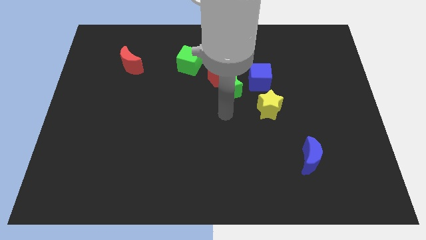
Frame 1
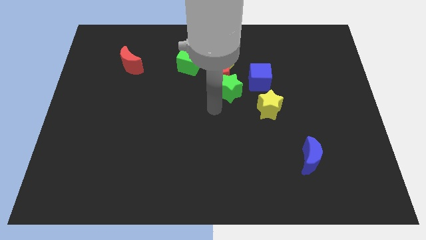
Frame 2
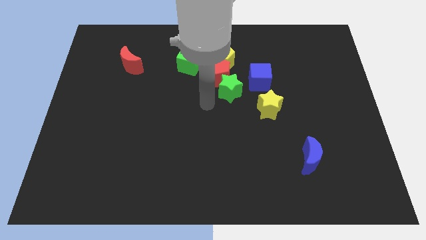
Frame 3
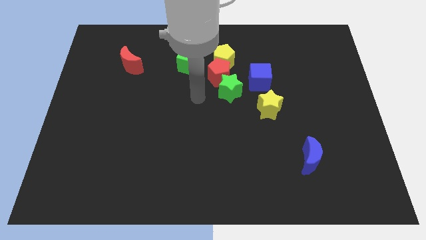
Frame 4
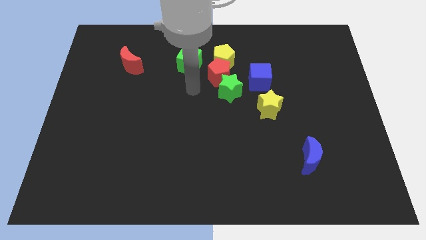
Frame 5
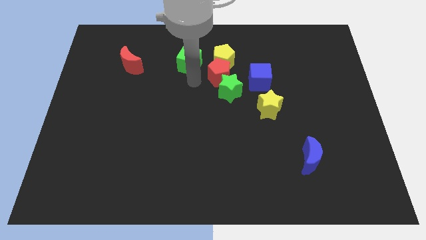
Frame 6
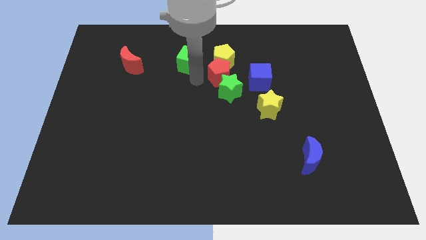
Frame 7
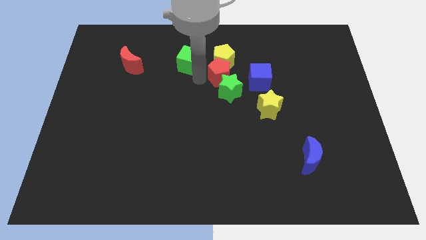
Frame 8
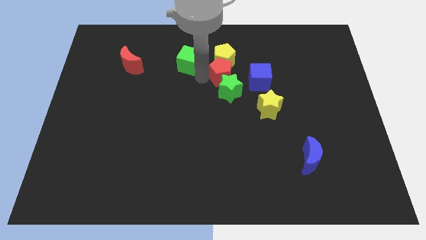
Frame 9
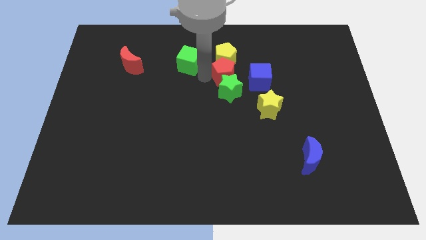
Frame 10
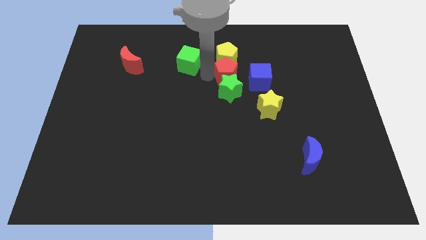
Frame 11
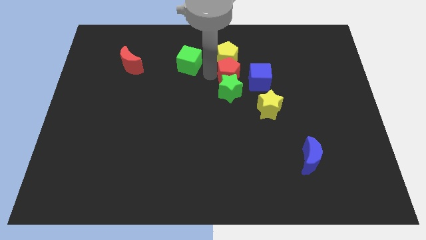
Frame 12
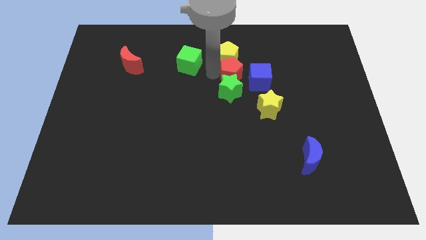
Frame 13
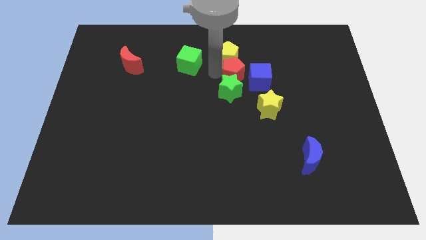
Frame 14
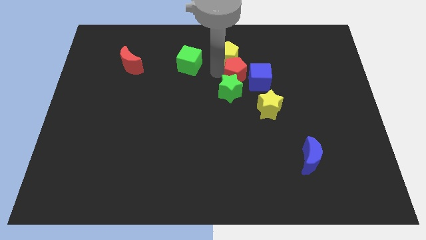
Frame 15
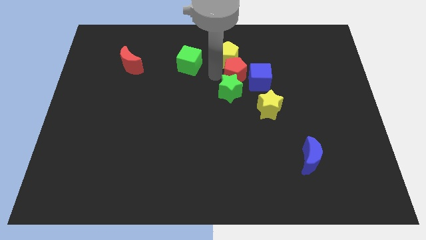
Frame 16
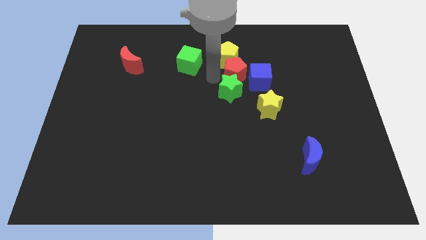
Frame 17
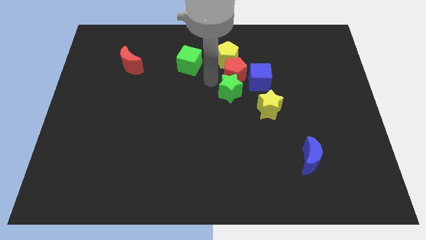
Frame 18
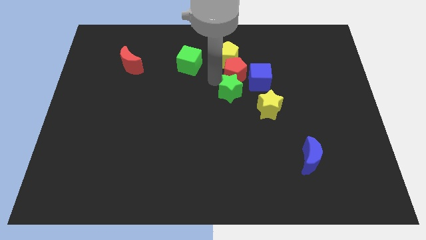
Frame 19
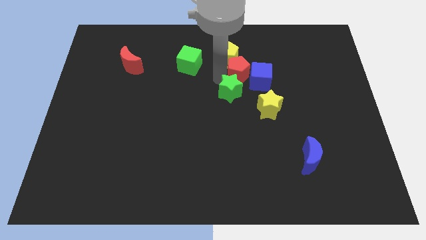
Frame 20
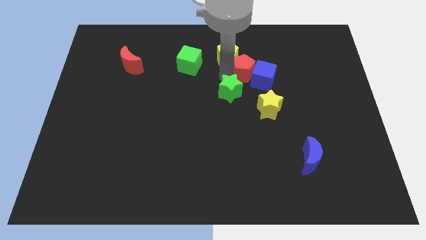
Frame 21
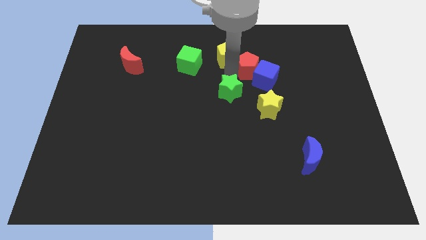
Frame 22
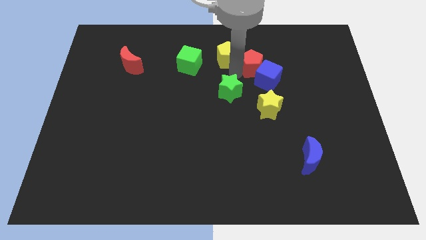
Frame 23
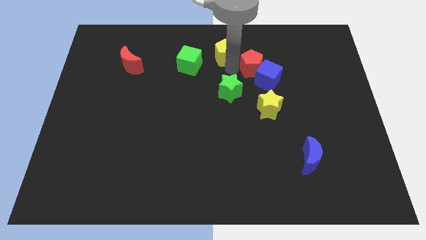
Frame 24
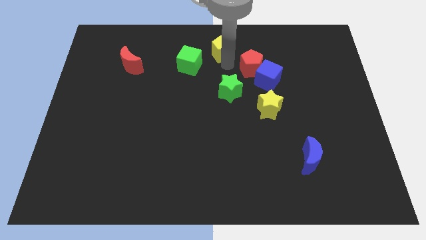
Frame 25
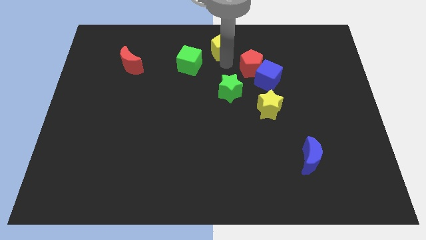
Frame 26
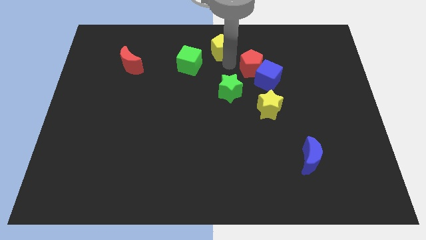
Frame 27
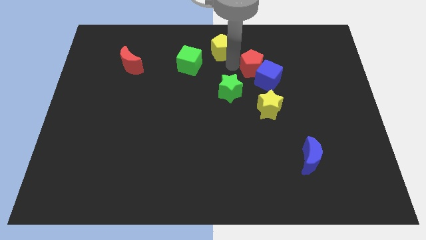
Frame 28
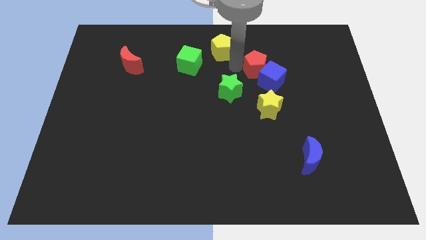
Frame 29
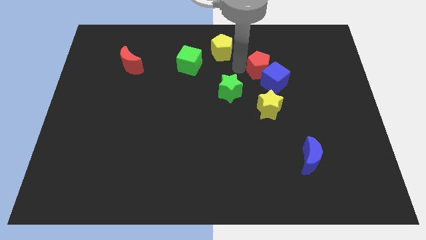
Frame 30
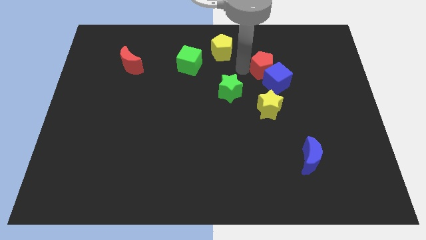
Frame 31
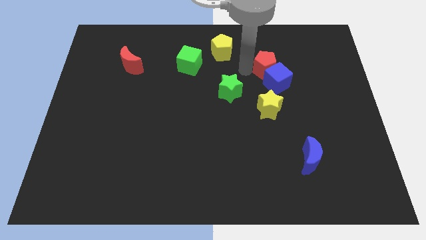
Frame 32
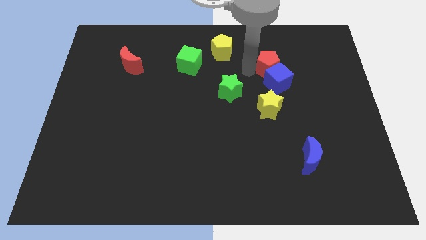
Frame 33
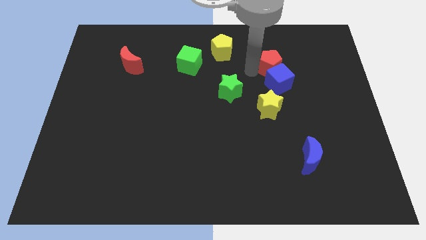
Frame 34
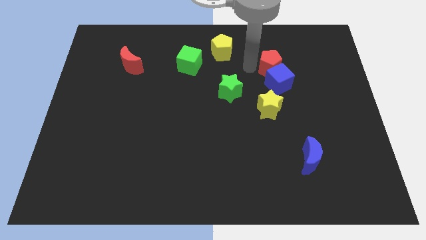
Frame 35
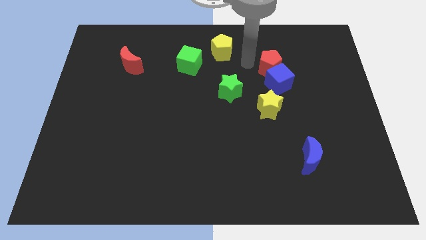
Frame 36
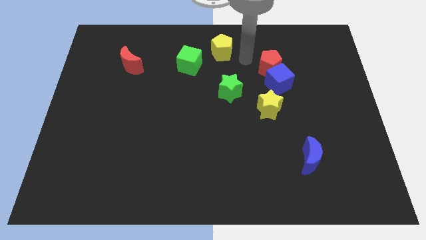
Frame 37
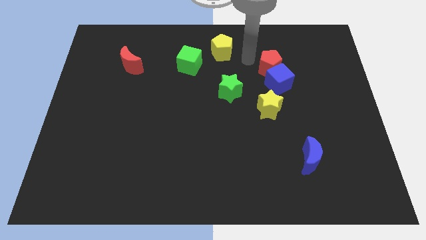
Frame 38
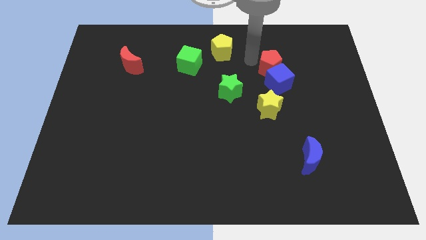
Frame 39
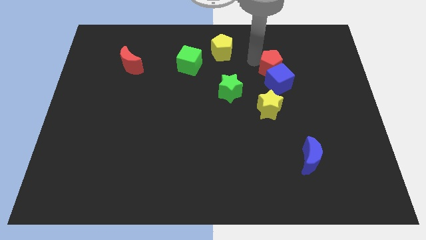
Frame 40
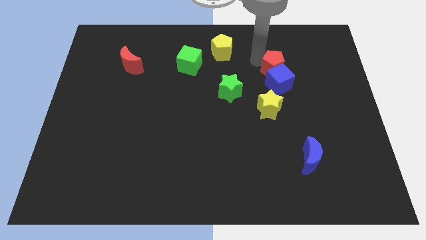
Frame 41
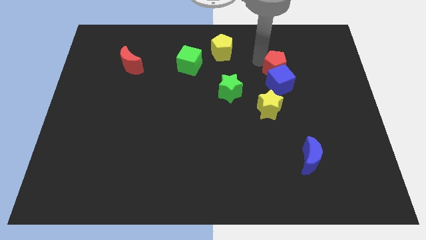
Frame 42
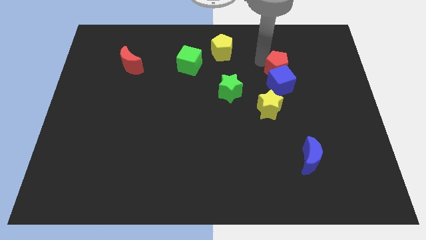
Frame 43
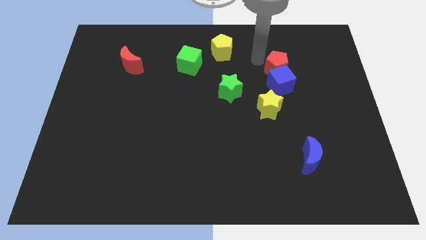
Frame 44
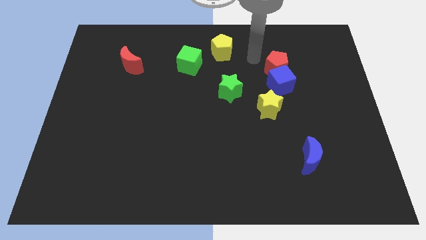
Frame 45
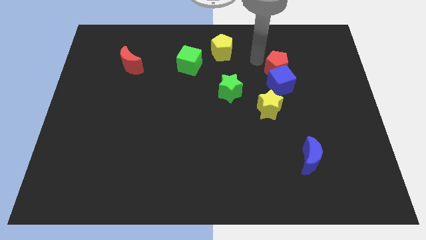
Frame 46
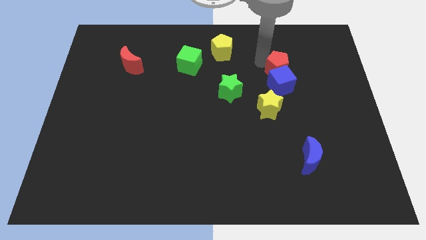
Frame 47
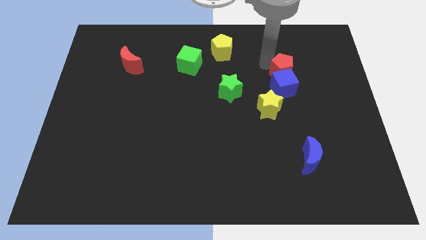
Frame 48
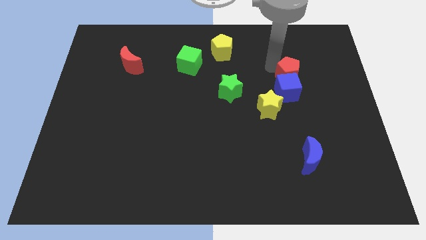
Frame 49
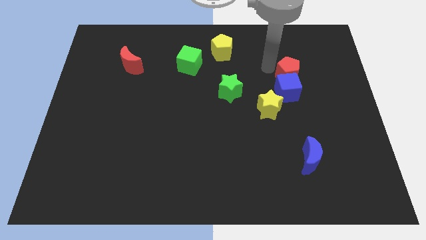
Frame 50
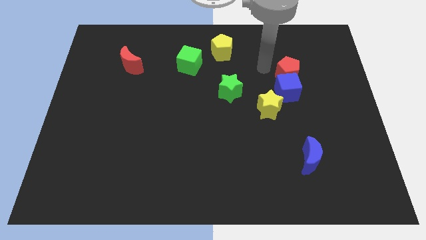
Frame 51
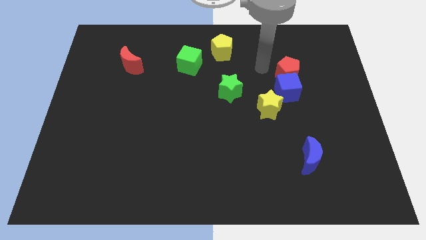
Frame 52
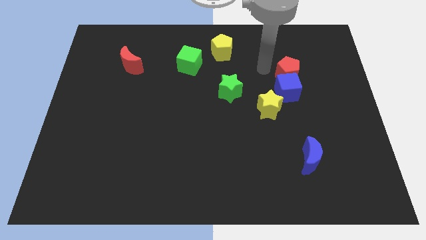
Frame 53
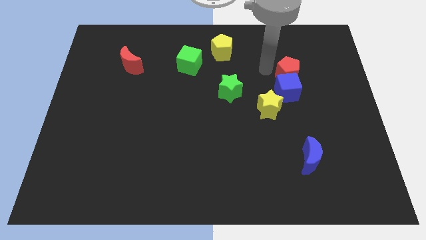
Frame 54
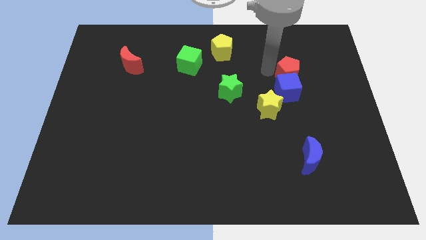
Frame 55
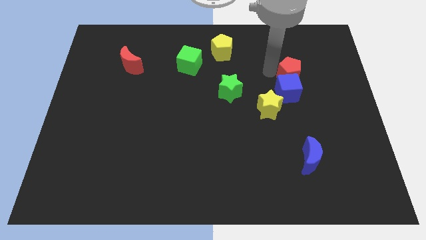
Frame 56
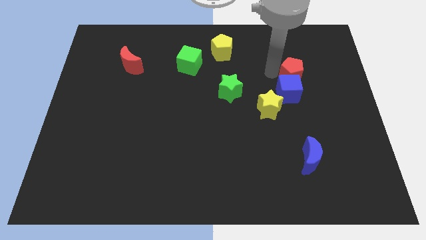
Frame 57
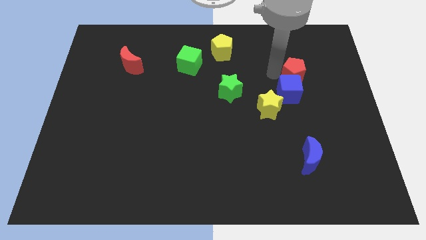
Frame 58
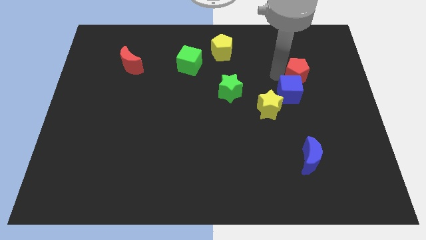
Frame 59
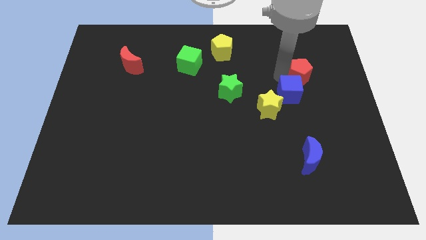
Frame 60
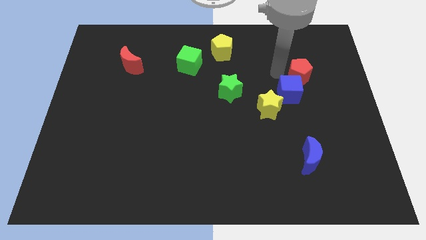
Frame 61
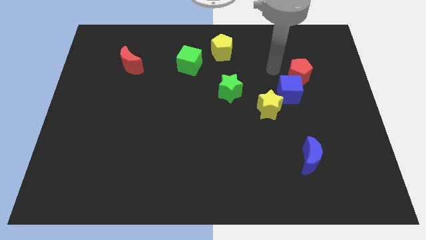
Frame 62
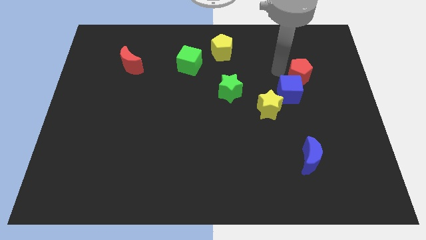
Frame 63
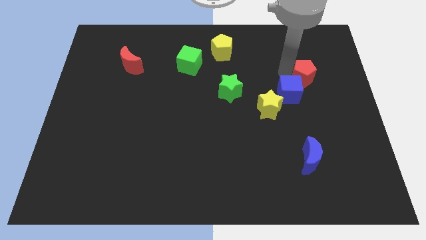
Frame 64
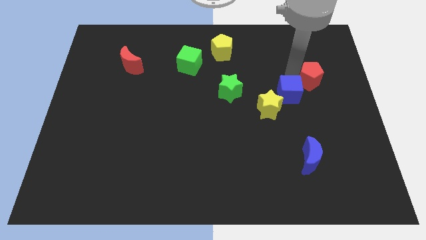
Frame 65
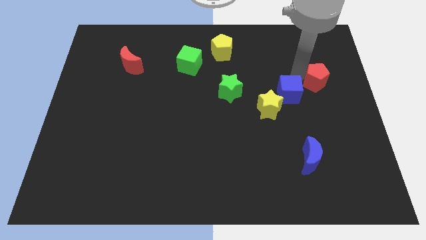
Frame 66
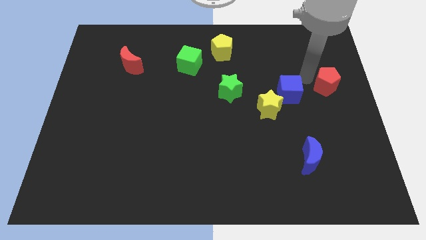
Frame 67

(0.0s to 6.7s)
slide the red pentagon to the center right

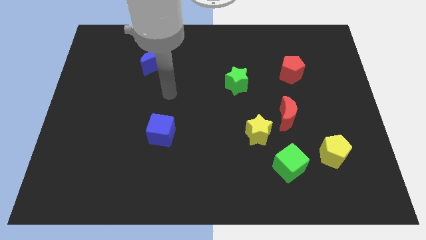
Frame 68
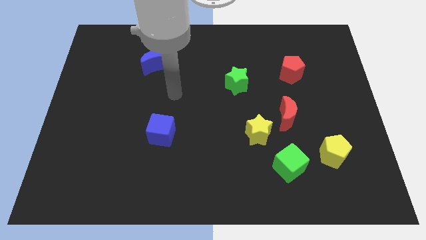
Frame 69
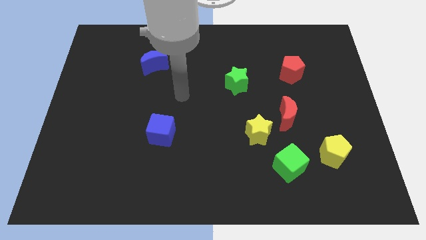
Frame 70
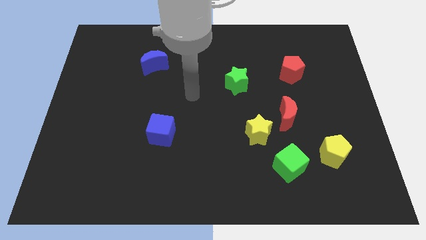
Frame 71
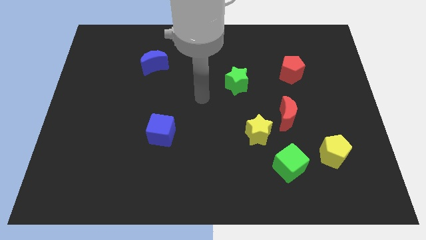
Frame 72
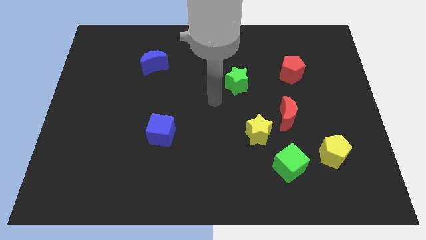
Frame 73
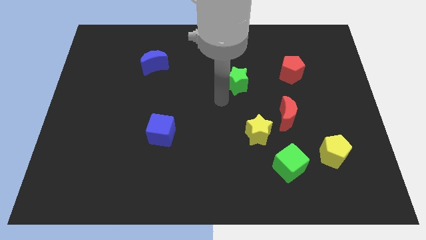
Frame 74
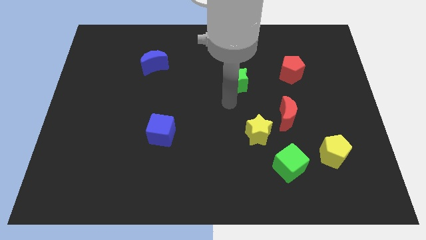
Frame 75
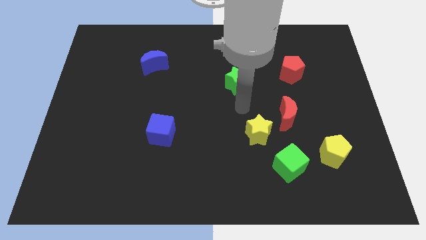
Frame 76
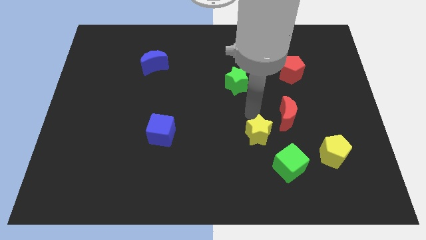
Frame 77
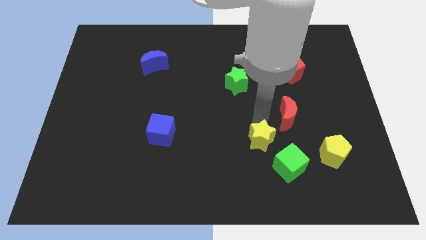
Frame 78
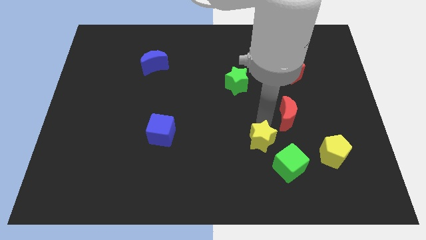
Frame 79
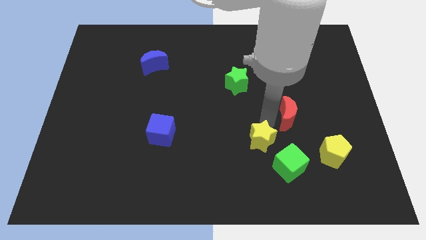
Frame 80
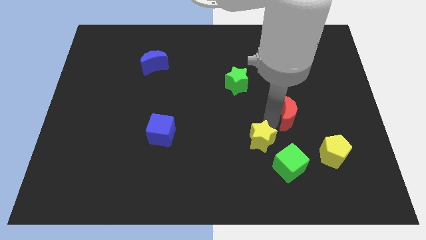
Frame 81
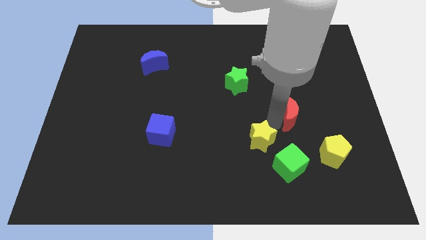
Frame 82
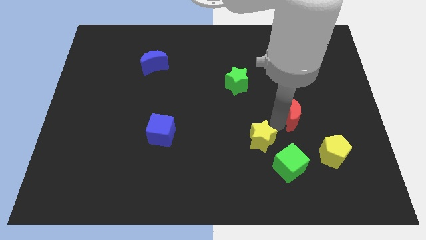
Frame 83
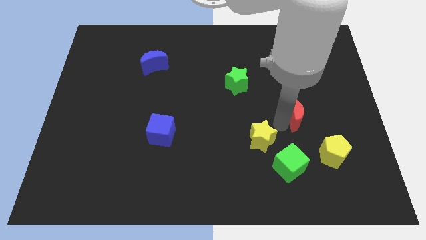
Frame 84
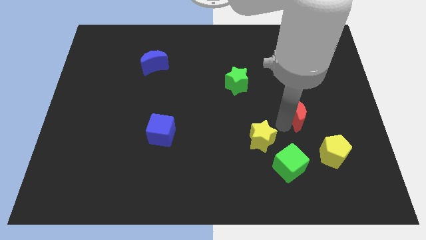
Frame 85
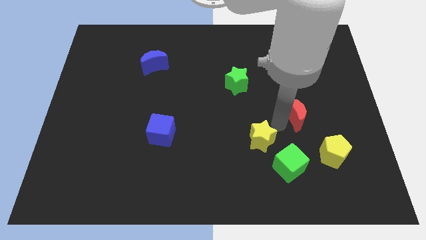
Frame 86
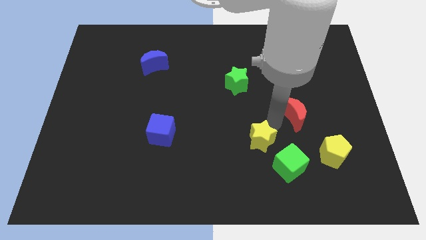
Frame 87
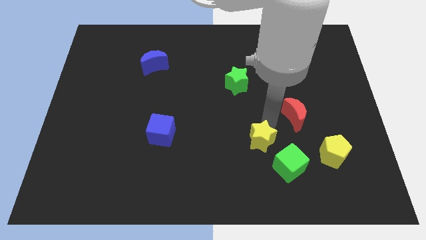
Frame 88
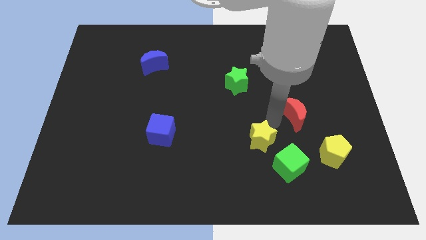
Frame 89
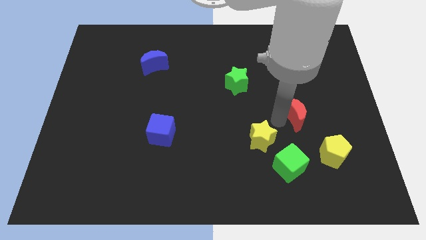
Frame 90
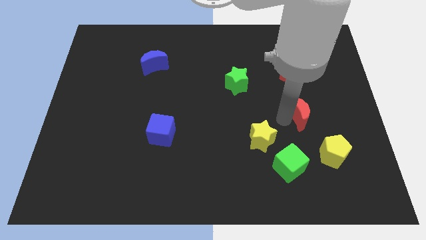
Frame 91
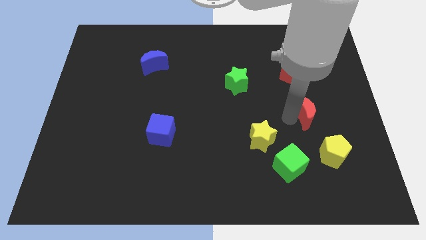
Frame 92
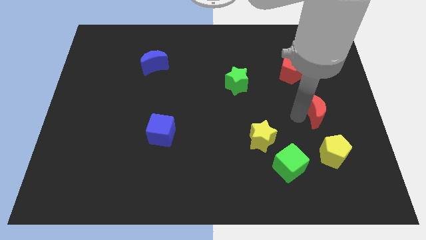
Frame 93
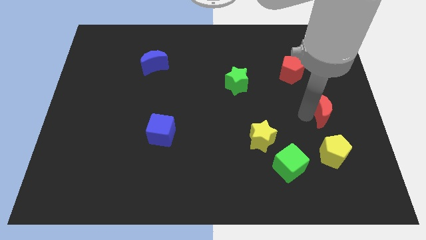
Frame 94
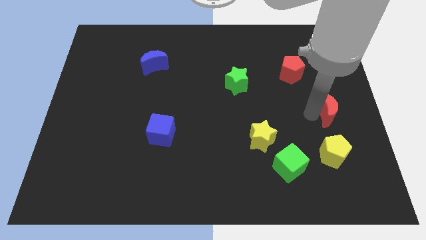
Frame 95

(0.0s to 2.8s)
slide the red moon to the right side
